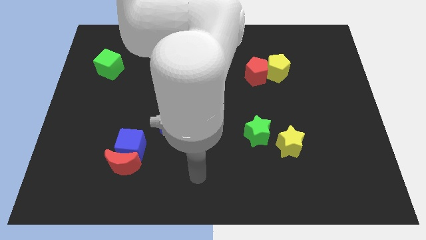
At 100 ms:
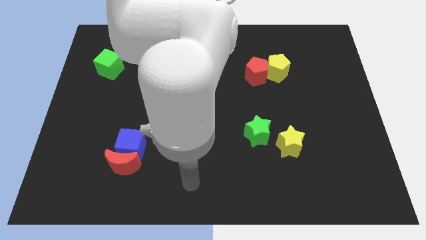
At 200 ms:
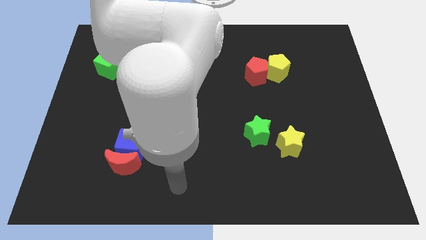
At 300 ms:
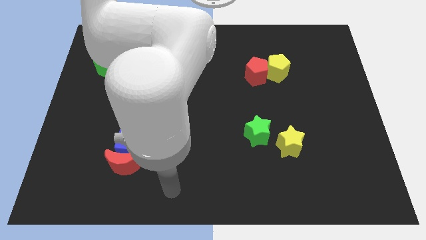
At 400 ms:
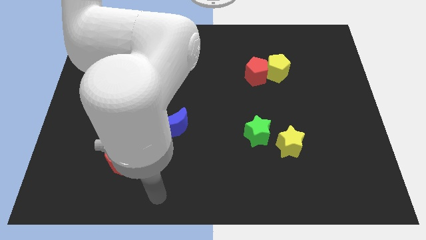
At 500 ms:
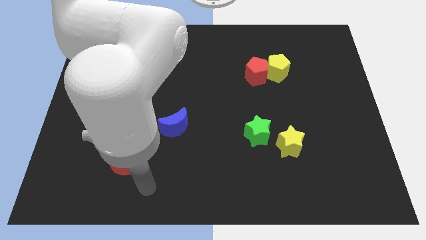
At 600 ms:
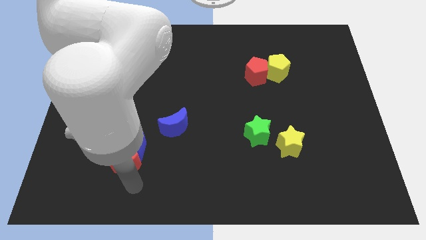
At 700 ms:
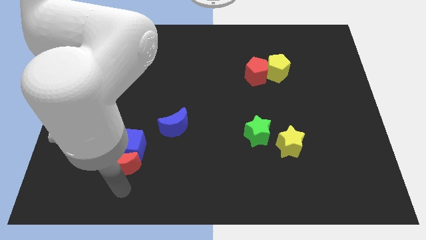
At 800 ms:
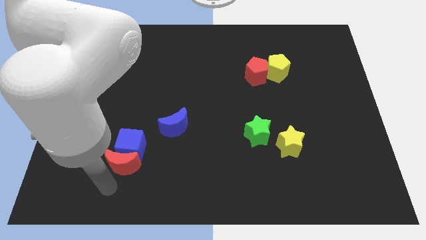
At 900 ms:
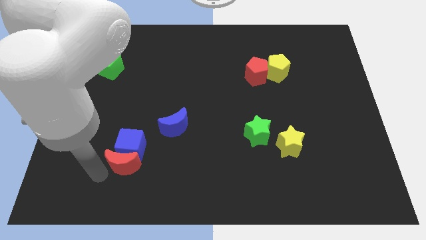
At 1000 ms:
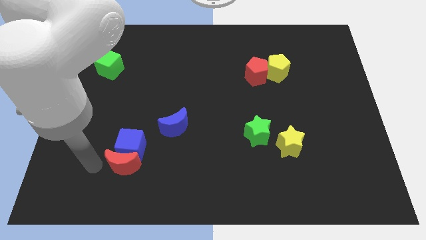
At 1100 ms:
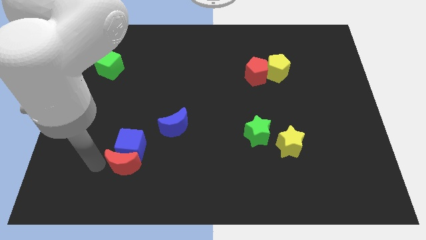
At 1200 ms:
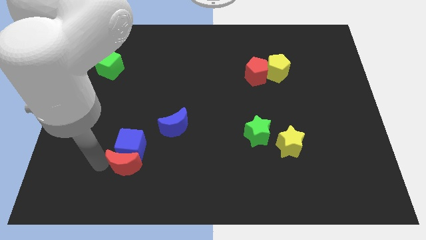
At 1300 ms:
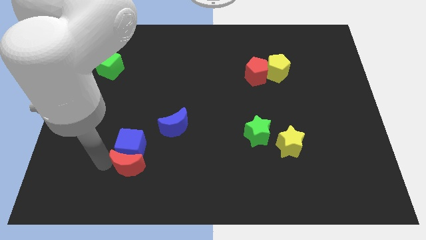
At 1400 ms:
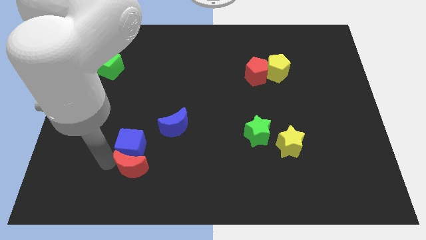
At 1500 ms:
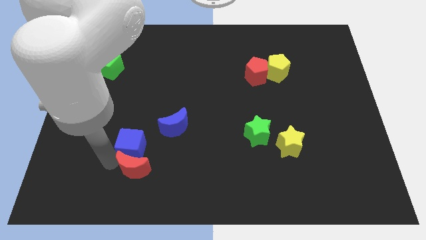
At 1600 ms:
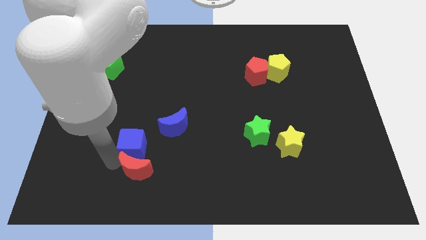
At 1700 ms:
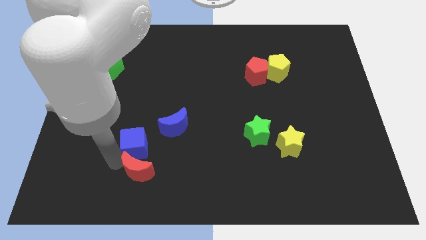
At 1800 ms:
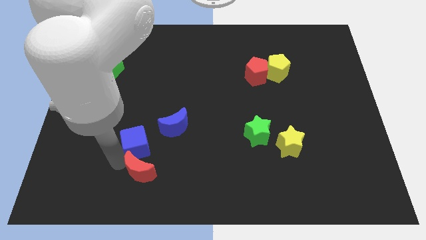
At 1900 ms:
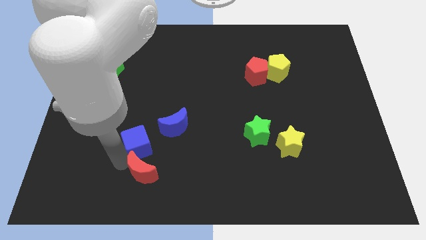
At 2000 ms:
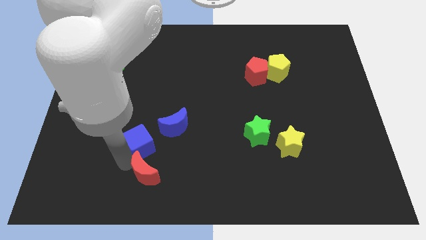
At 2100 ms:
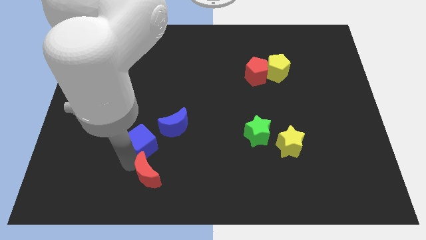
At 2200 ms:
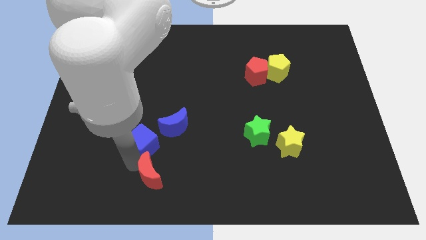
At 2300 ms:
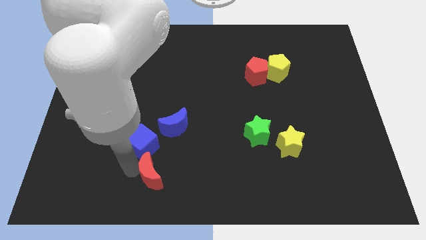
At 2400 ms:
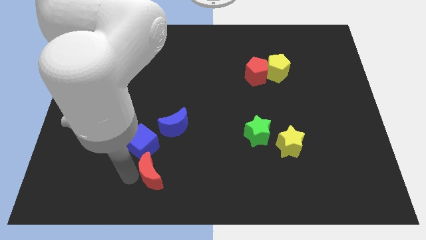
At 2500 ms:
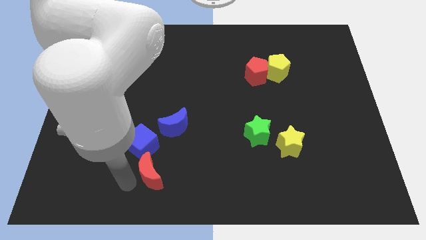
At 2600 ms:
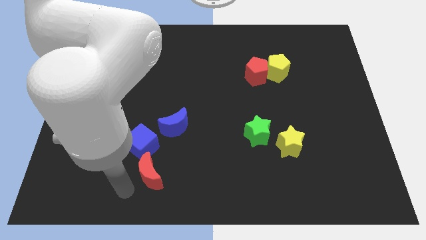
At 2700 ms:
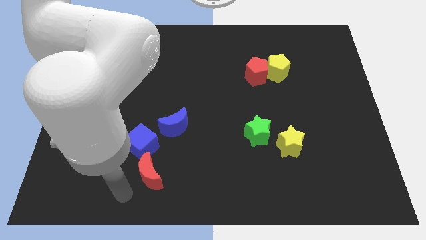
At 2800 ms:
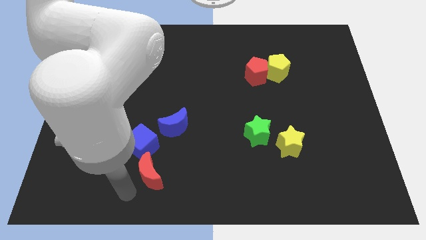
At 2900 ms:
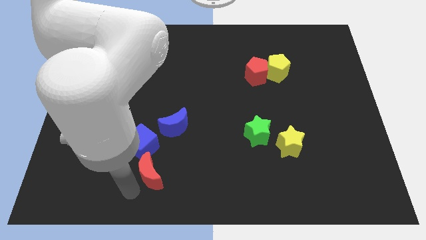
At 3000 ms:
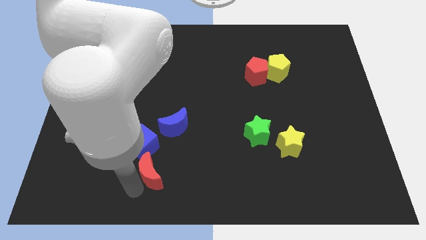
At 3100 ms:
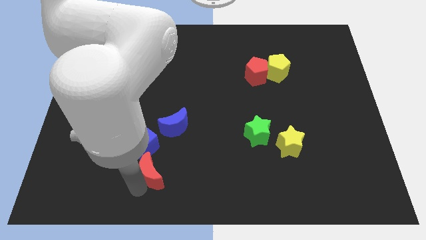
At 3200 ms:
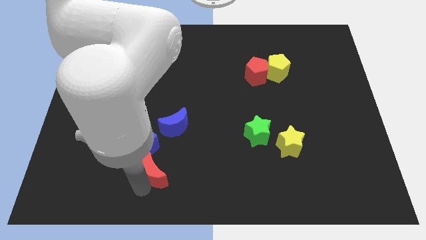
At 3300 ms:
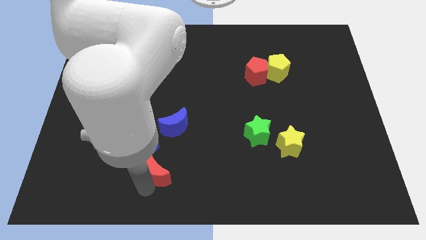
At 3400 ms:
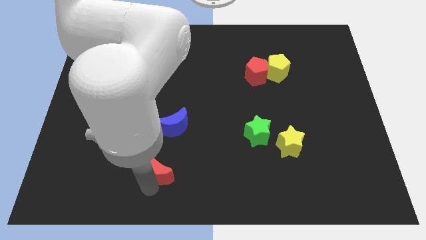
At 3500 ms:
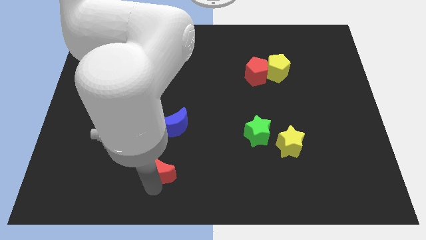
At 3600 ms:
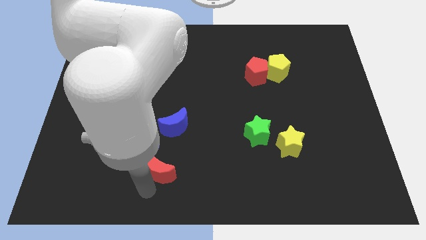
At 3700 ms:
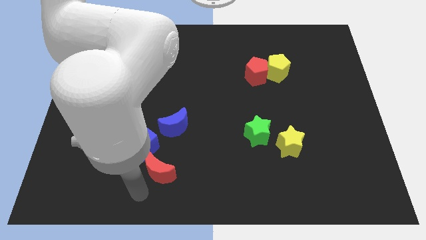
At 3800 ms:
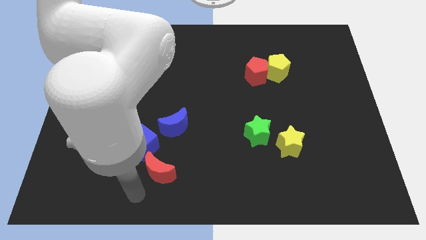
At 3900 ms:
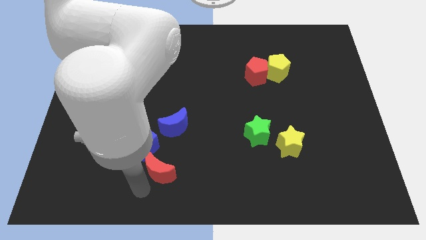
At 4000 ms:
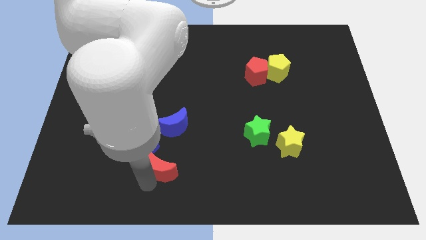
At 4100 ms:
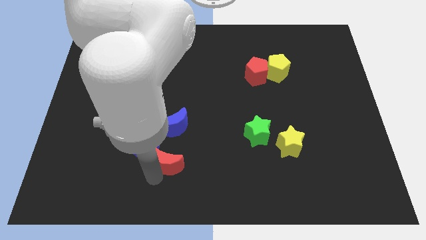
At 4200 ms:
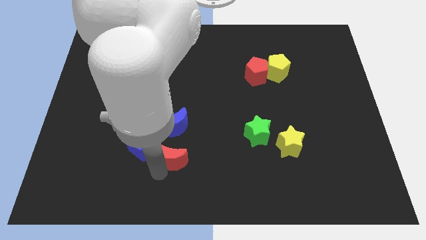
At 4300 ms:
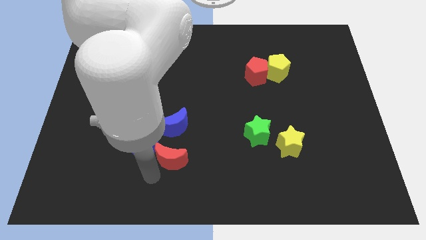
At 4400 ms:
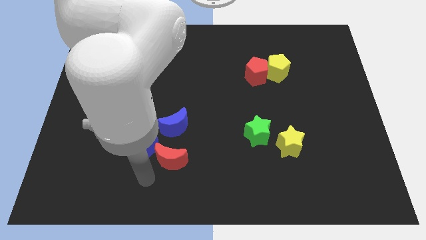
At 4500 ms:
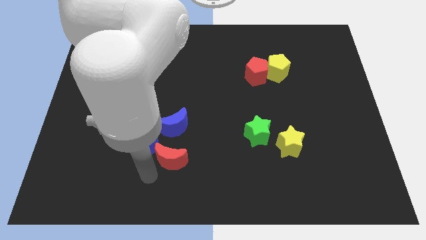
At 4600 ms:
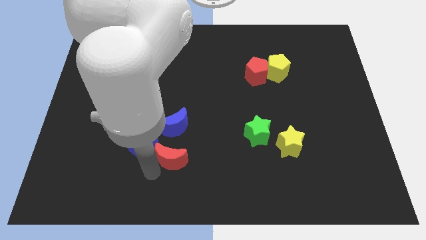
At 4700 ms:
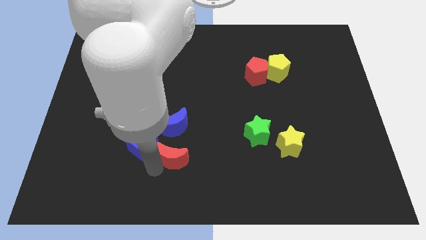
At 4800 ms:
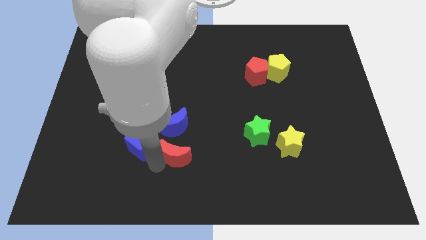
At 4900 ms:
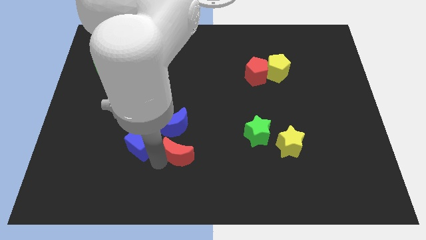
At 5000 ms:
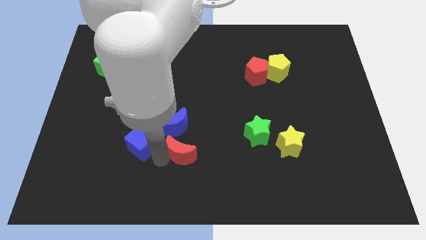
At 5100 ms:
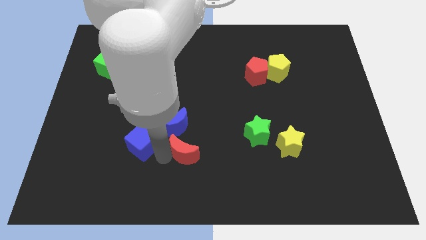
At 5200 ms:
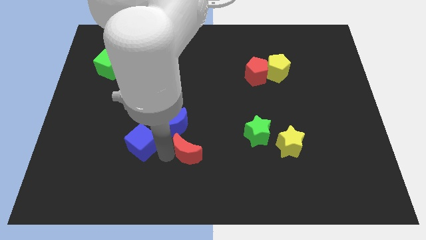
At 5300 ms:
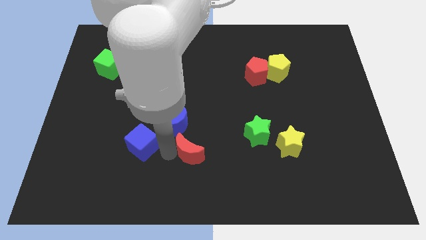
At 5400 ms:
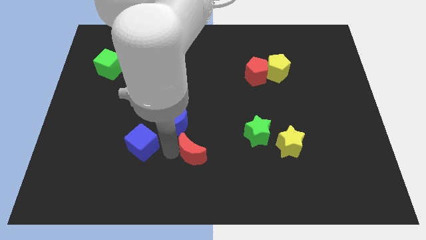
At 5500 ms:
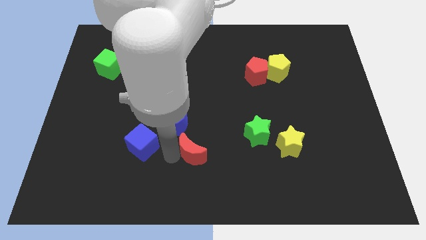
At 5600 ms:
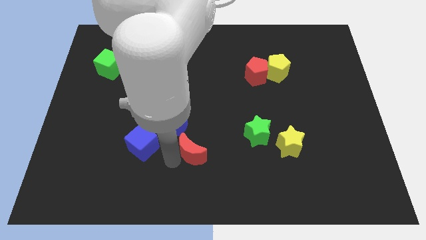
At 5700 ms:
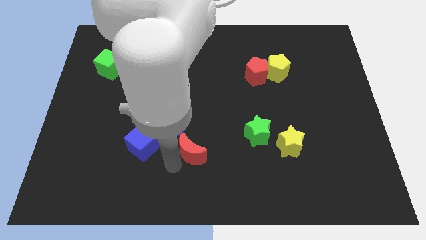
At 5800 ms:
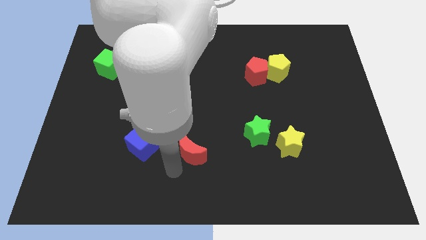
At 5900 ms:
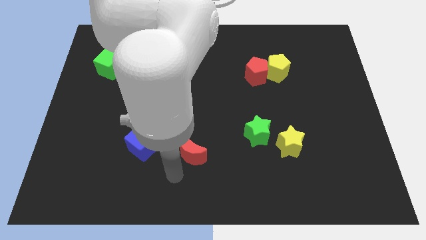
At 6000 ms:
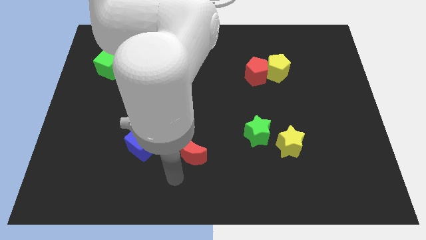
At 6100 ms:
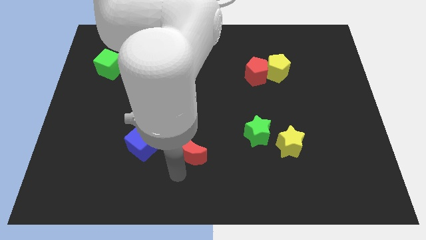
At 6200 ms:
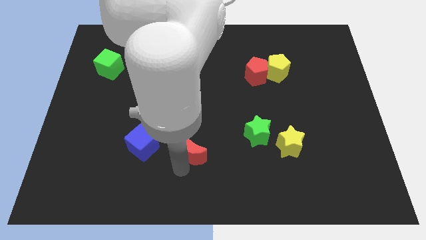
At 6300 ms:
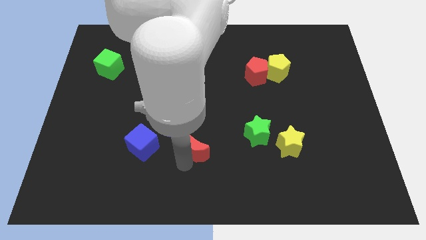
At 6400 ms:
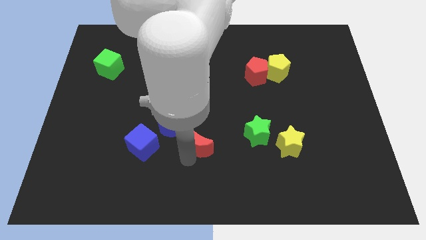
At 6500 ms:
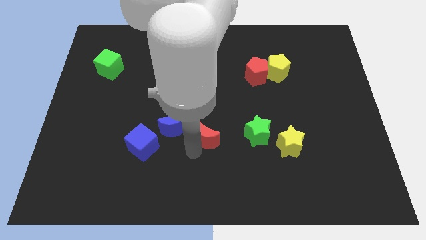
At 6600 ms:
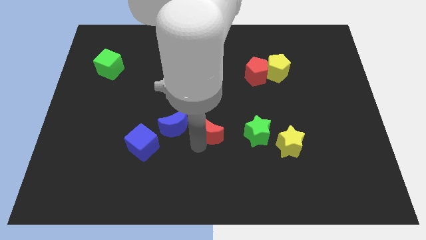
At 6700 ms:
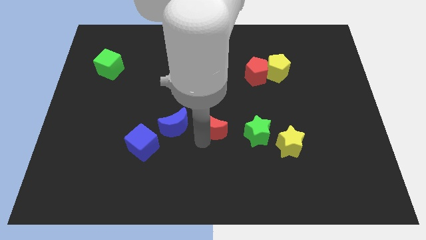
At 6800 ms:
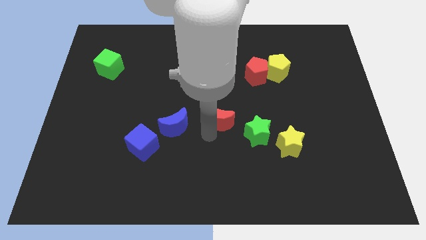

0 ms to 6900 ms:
move the red moon upwards and right

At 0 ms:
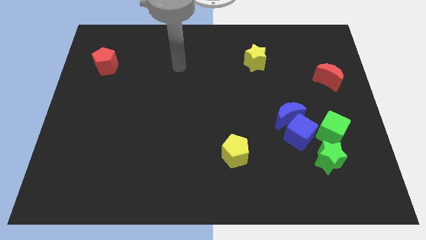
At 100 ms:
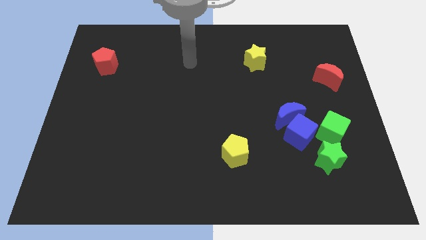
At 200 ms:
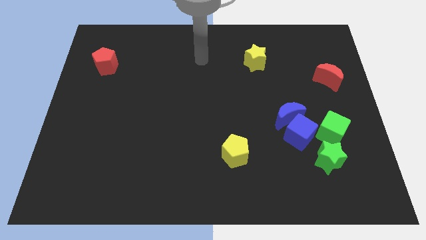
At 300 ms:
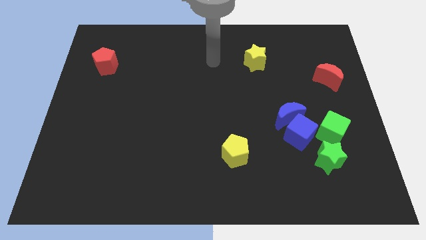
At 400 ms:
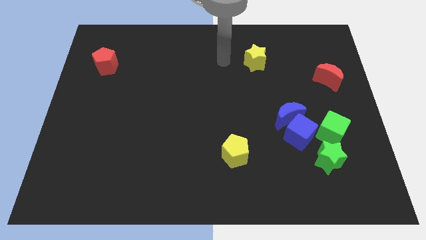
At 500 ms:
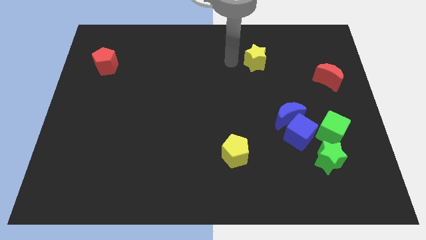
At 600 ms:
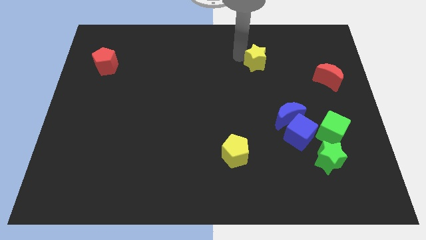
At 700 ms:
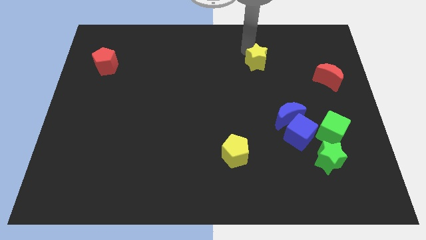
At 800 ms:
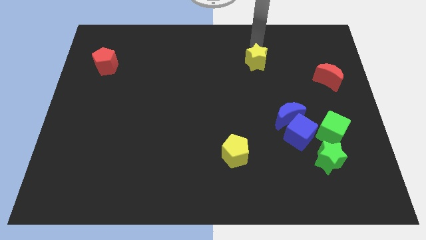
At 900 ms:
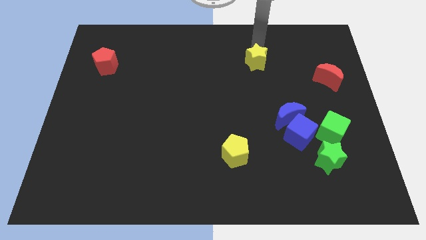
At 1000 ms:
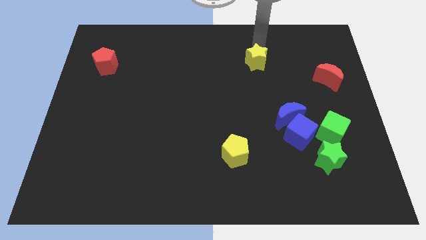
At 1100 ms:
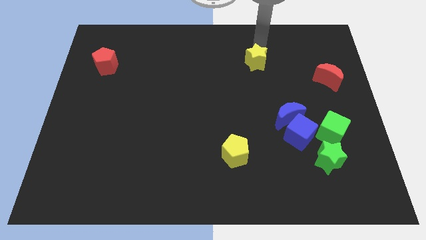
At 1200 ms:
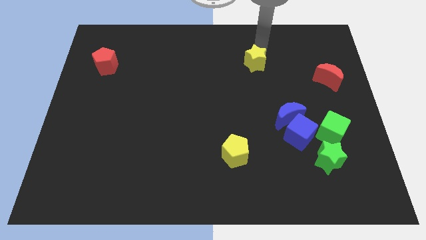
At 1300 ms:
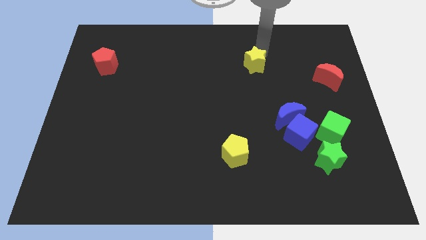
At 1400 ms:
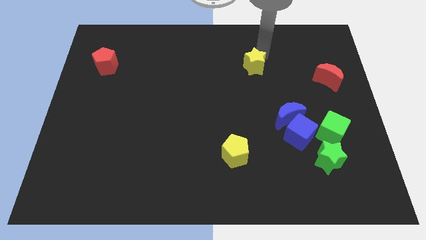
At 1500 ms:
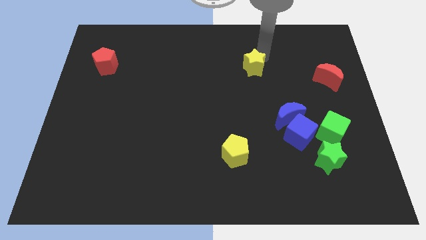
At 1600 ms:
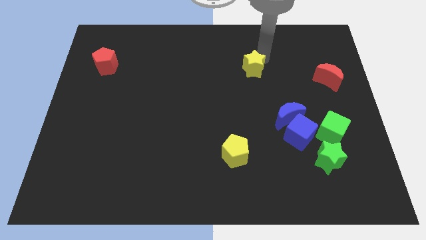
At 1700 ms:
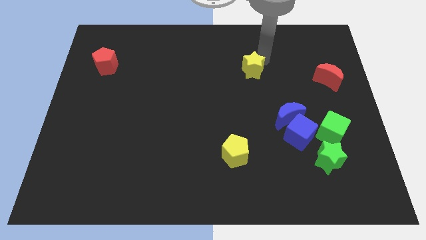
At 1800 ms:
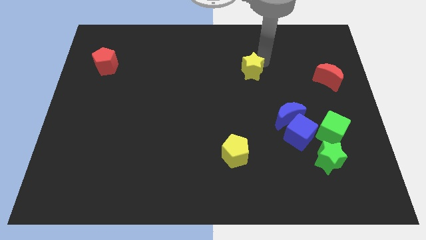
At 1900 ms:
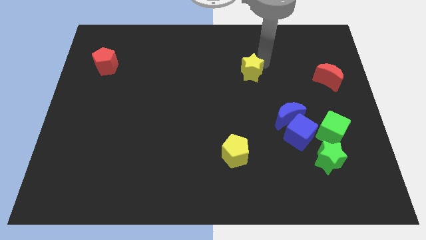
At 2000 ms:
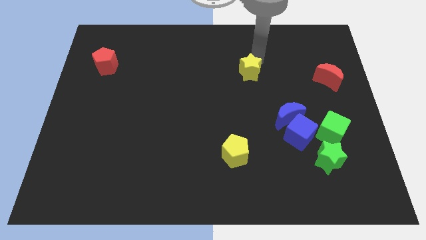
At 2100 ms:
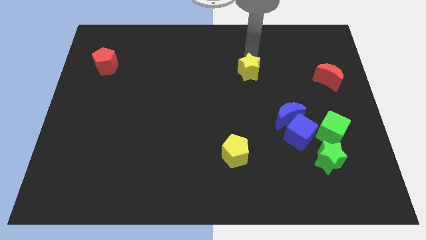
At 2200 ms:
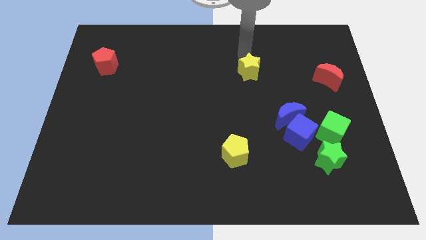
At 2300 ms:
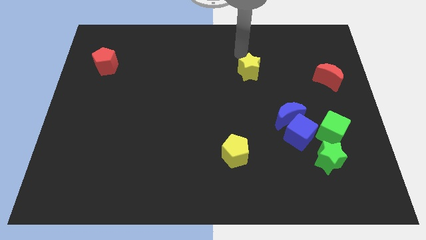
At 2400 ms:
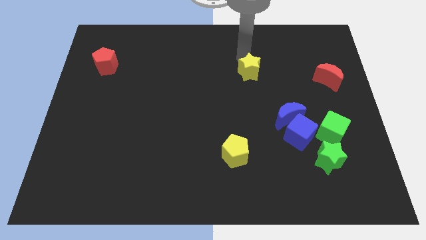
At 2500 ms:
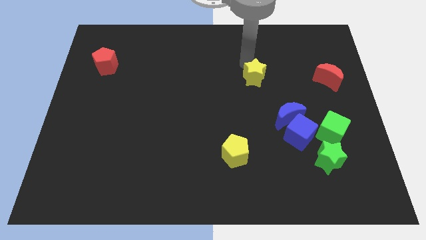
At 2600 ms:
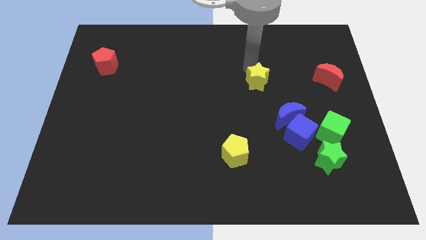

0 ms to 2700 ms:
move the yellow star slightly downwards
